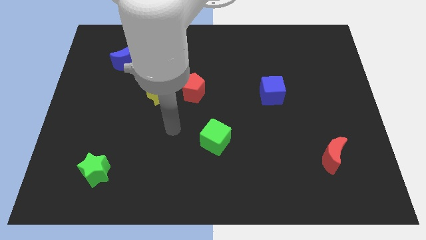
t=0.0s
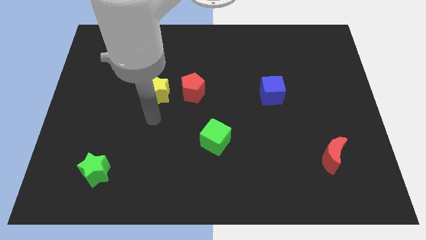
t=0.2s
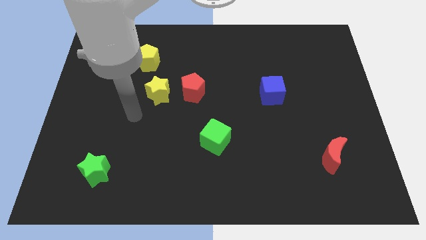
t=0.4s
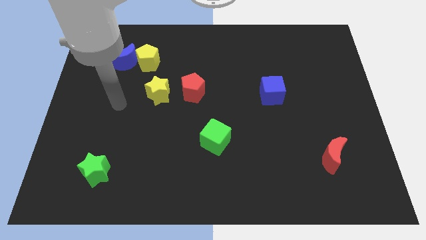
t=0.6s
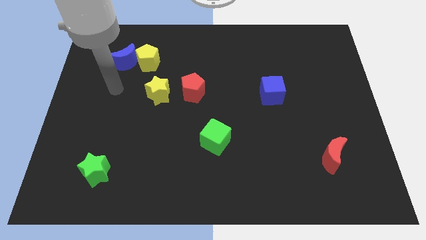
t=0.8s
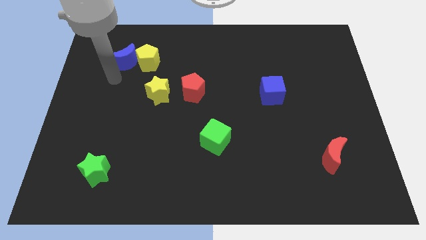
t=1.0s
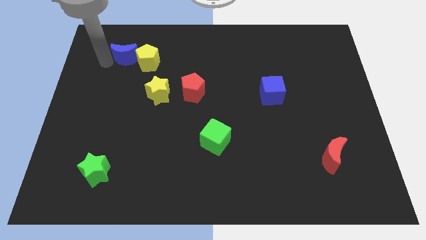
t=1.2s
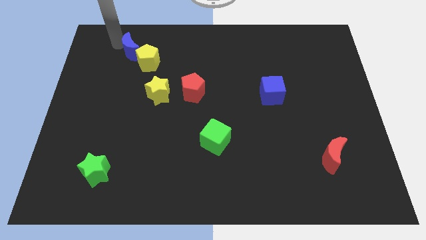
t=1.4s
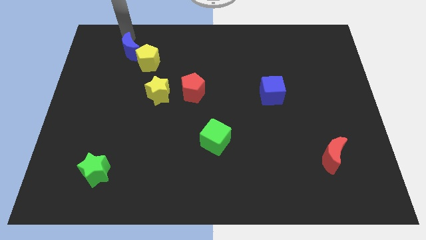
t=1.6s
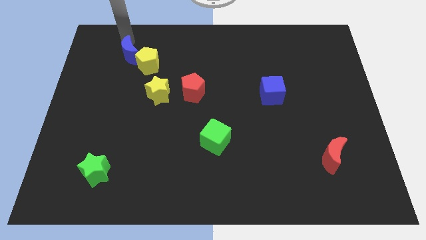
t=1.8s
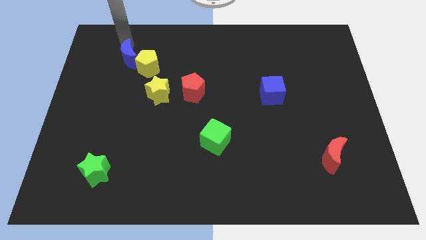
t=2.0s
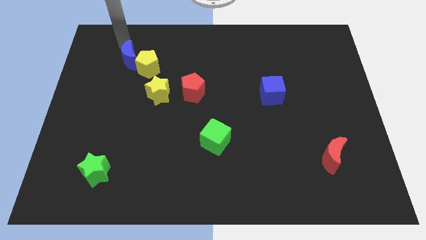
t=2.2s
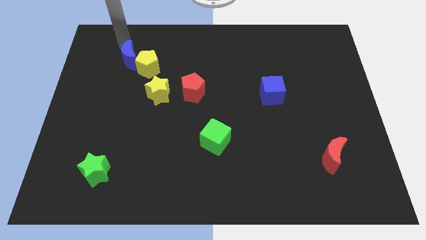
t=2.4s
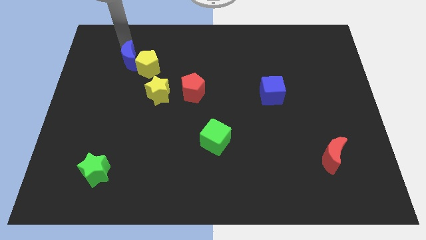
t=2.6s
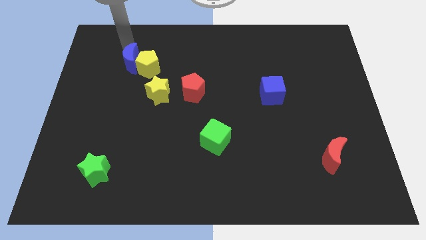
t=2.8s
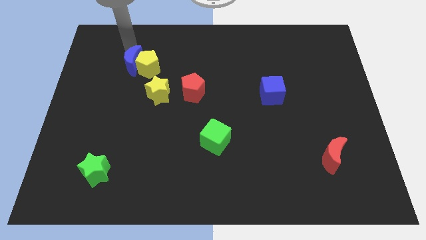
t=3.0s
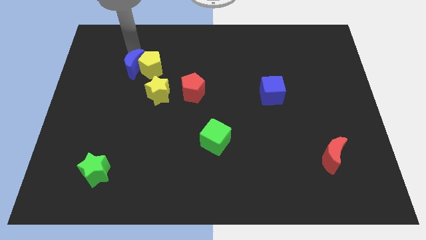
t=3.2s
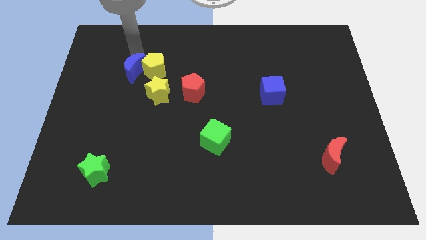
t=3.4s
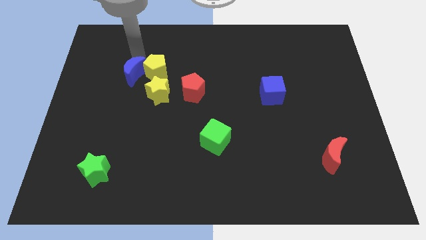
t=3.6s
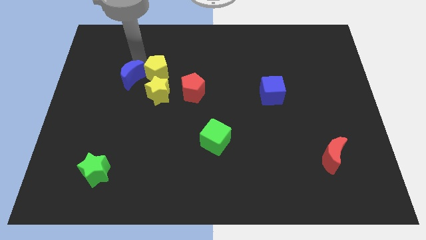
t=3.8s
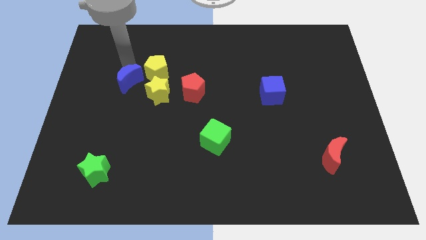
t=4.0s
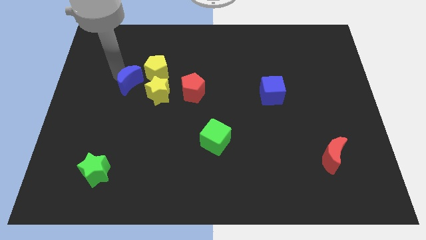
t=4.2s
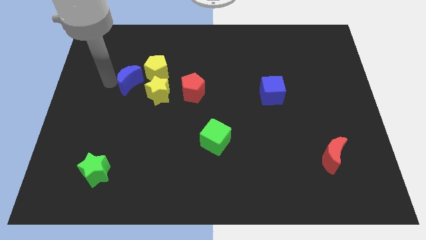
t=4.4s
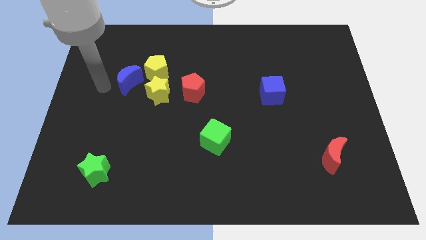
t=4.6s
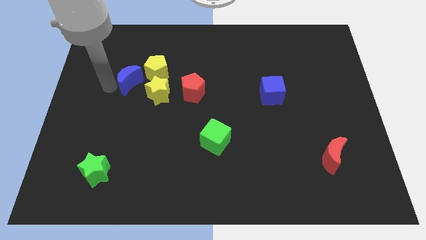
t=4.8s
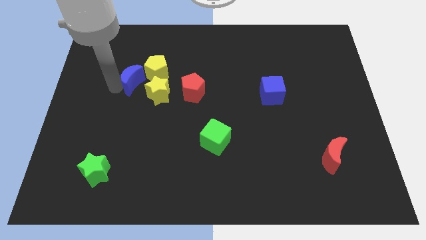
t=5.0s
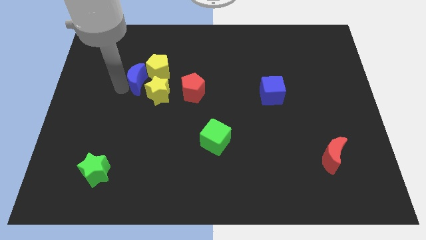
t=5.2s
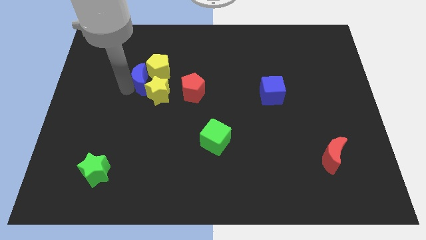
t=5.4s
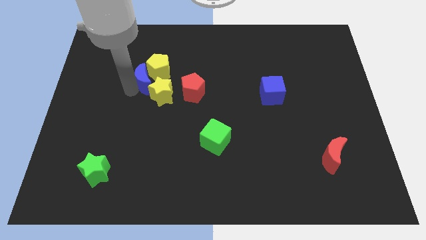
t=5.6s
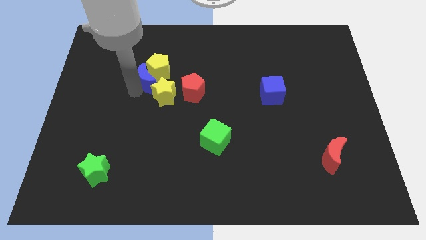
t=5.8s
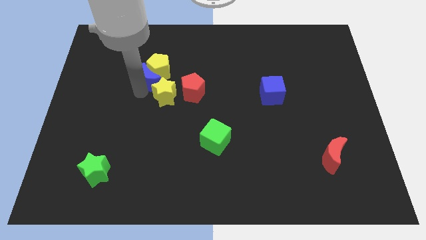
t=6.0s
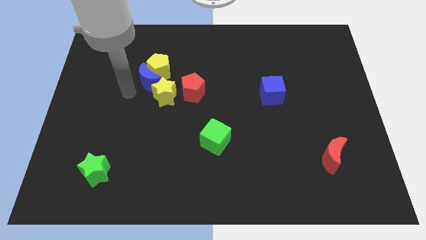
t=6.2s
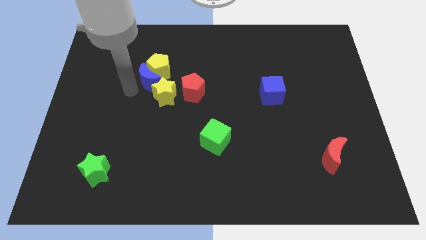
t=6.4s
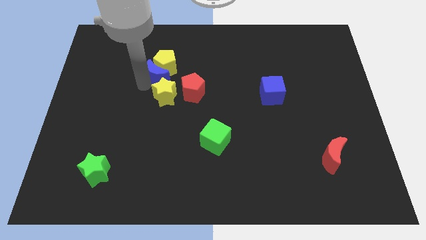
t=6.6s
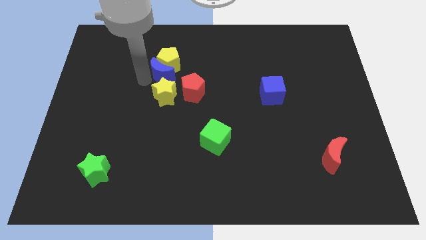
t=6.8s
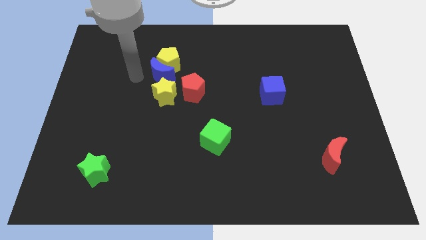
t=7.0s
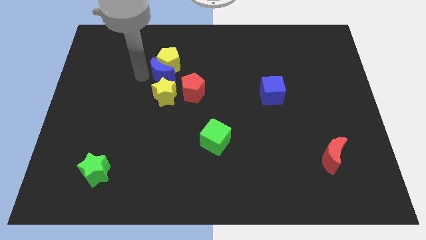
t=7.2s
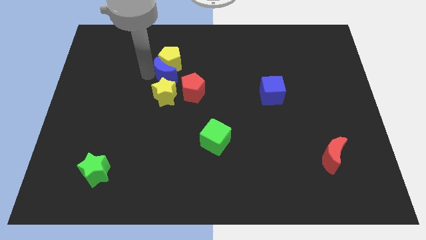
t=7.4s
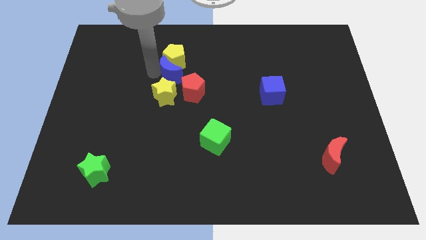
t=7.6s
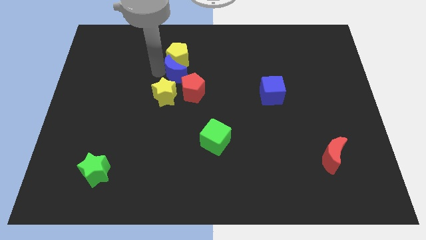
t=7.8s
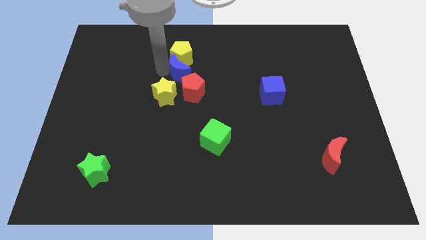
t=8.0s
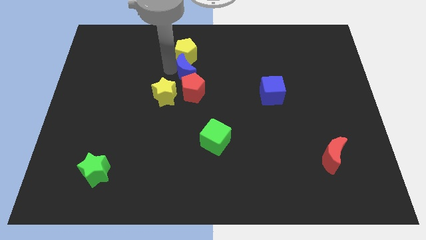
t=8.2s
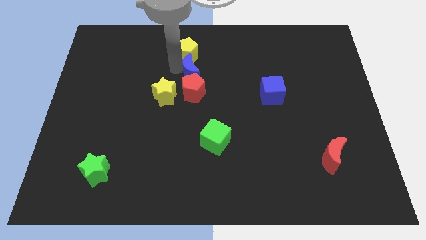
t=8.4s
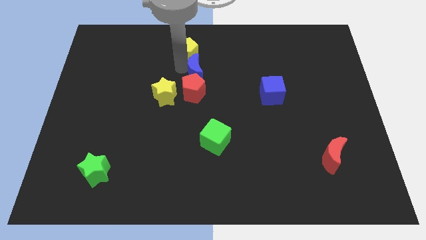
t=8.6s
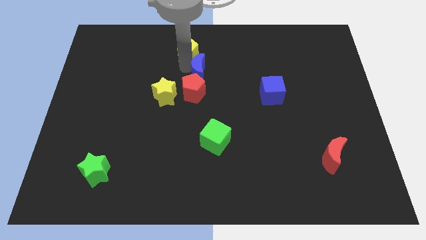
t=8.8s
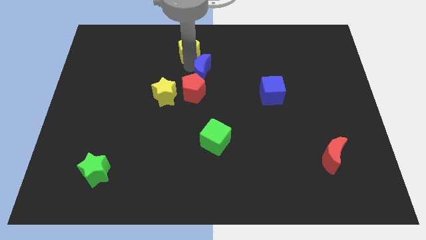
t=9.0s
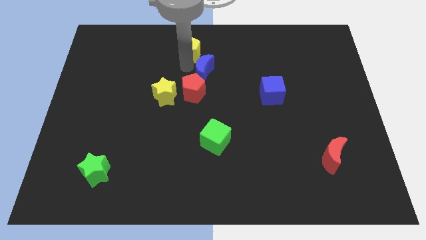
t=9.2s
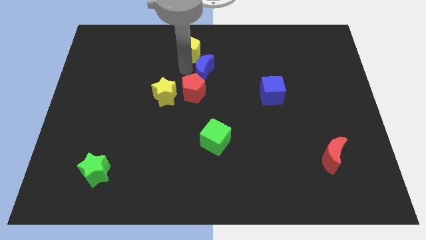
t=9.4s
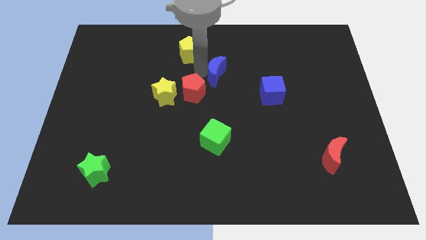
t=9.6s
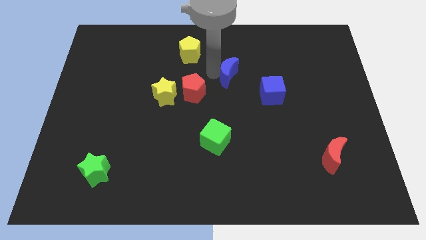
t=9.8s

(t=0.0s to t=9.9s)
put the blue moon to the top left of the blue cube

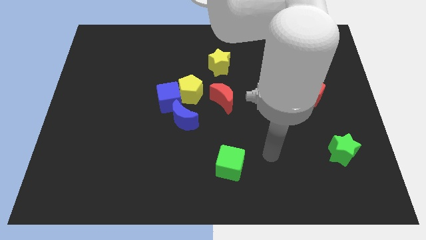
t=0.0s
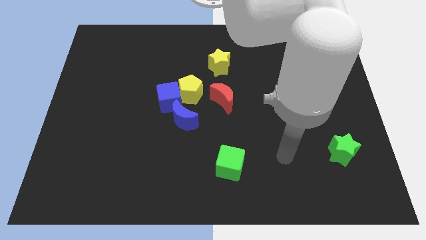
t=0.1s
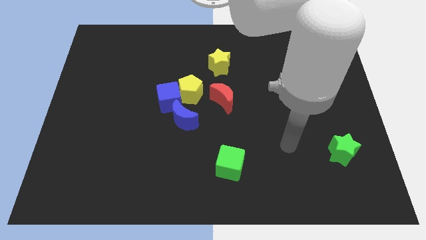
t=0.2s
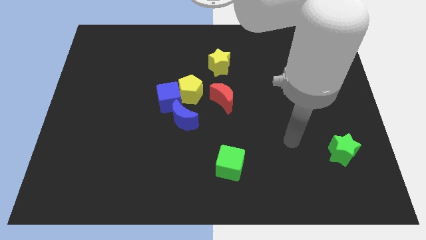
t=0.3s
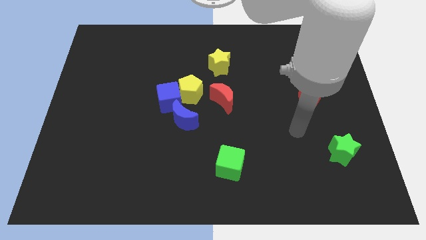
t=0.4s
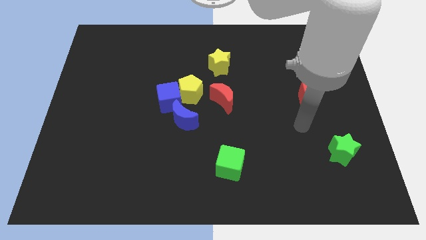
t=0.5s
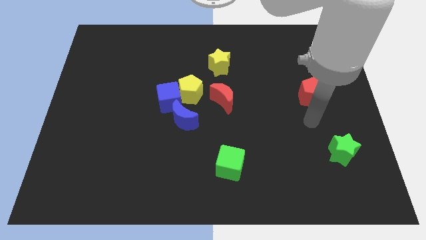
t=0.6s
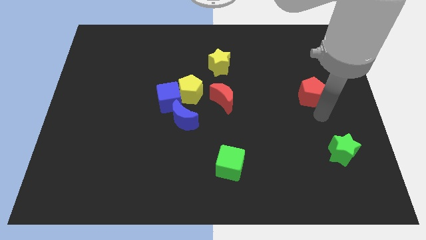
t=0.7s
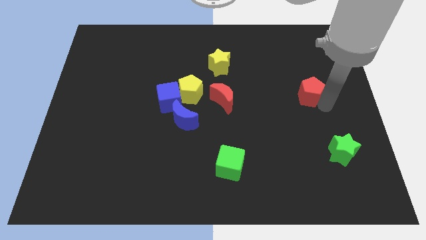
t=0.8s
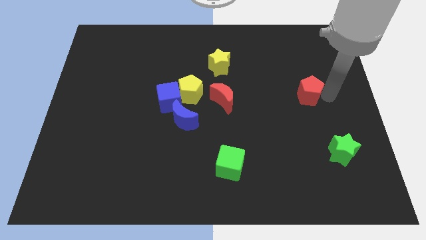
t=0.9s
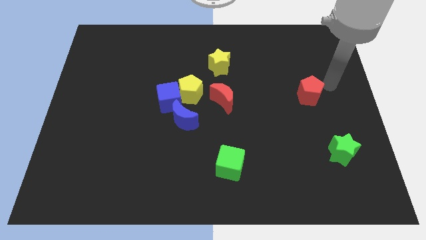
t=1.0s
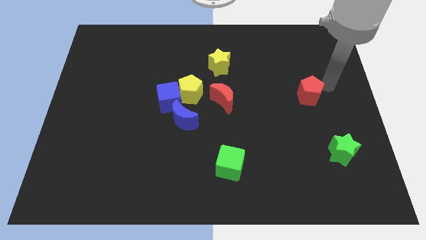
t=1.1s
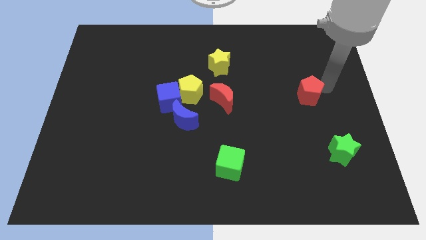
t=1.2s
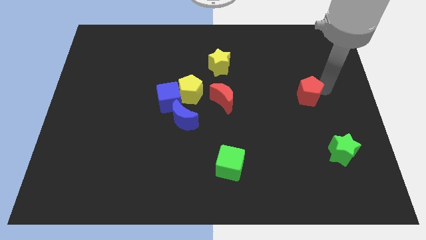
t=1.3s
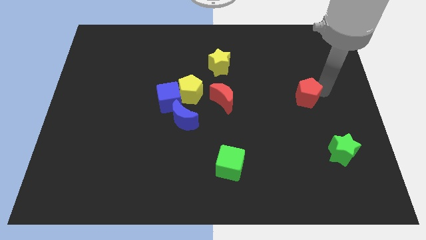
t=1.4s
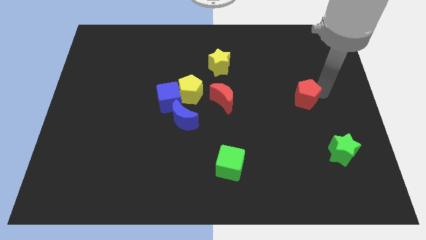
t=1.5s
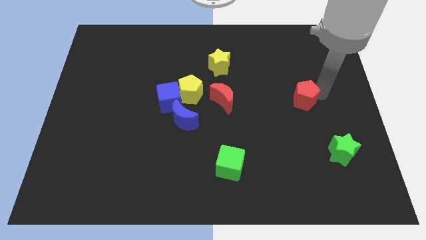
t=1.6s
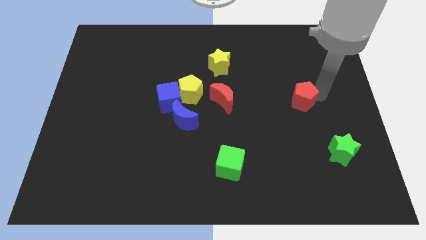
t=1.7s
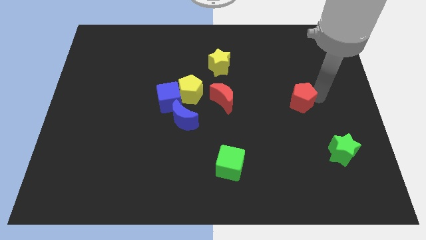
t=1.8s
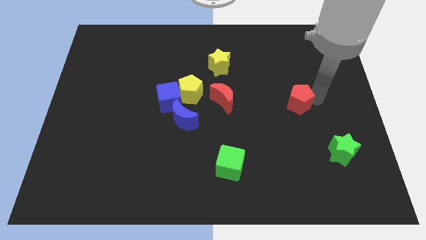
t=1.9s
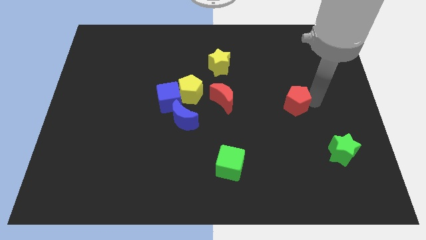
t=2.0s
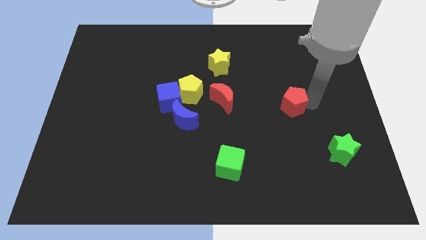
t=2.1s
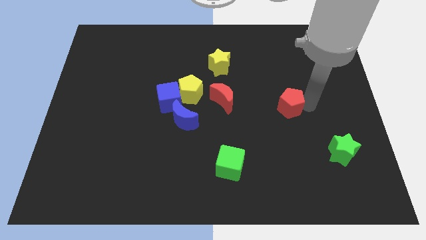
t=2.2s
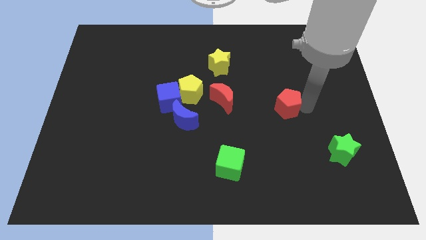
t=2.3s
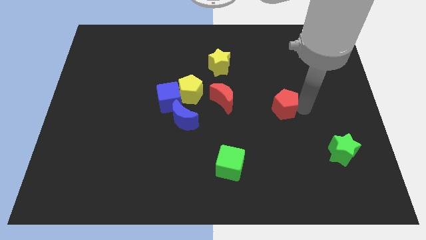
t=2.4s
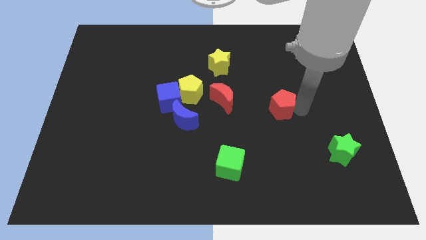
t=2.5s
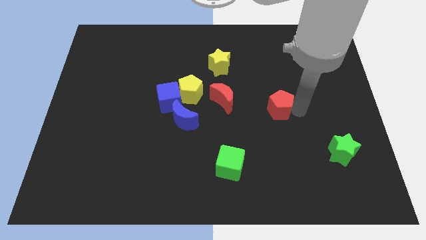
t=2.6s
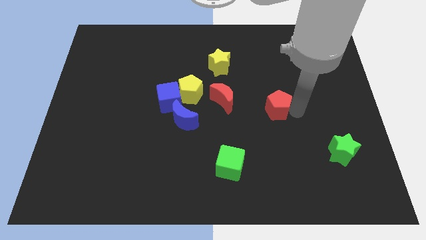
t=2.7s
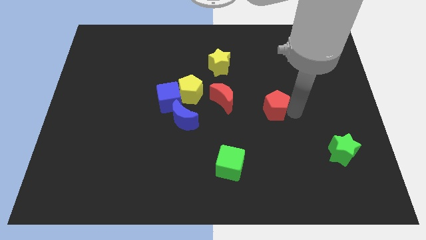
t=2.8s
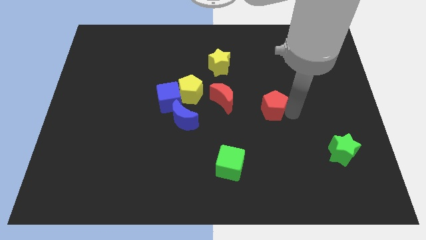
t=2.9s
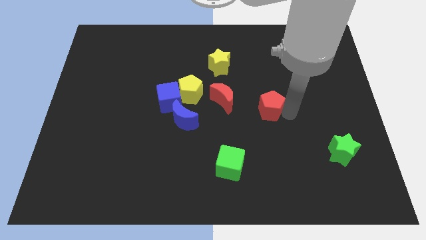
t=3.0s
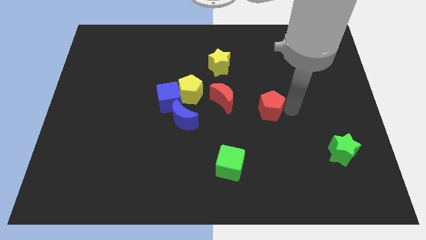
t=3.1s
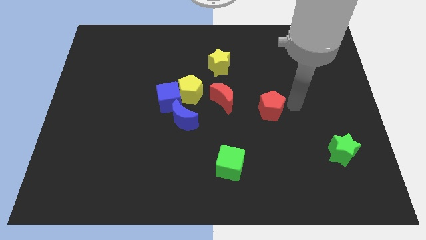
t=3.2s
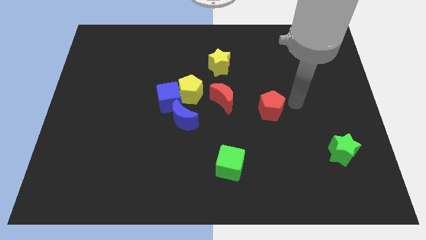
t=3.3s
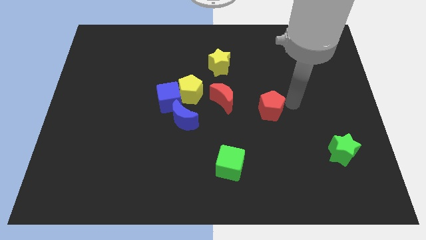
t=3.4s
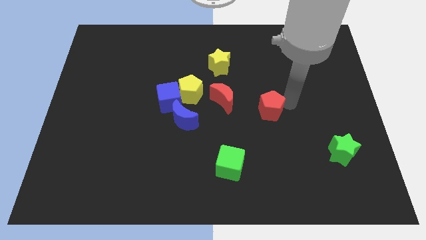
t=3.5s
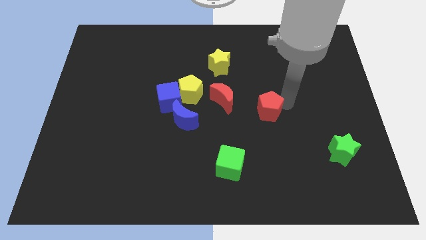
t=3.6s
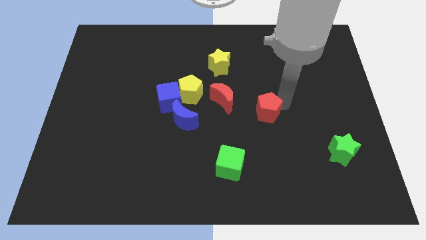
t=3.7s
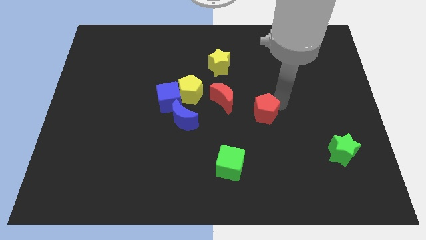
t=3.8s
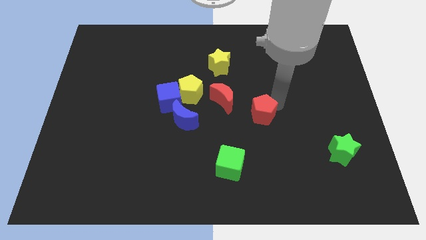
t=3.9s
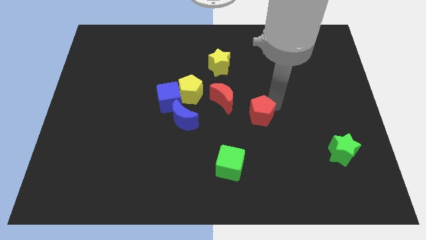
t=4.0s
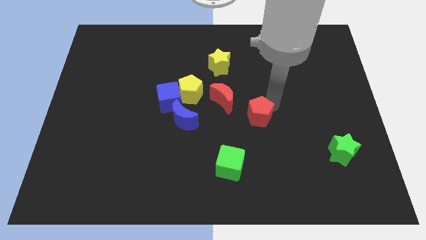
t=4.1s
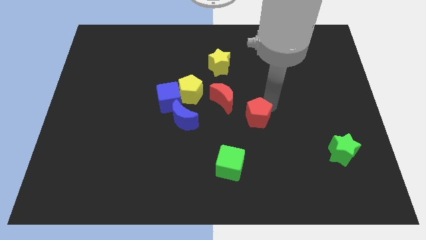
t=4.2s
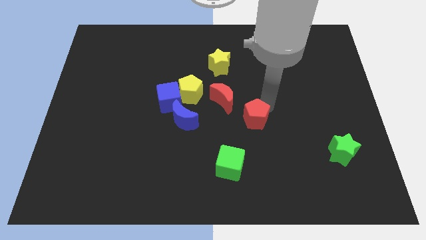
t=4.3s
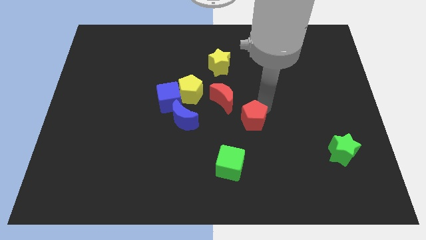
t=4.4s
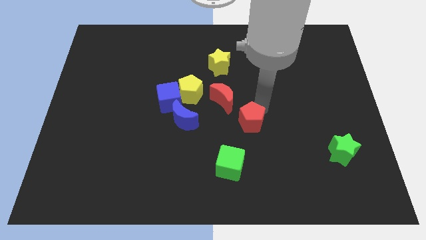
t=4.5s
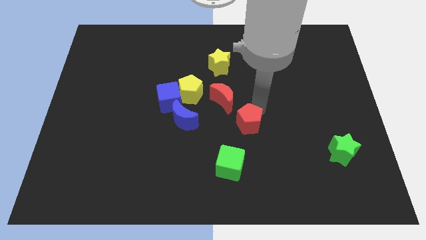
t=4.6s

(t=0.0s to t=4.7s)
put the red pentagon above the green cube
